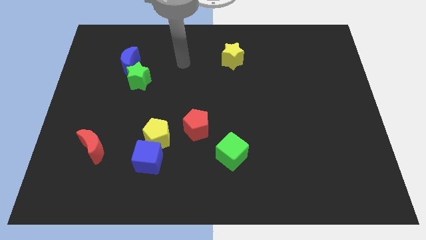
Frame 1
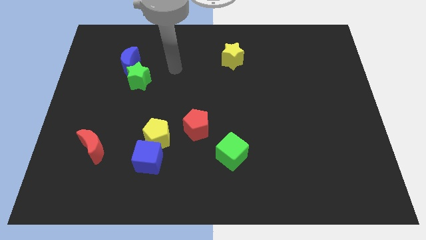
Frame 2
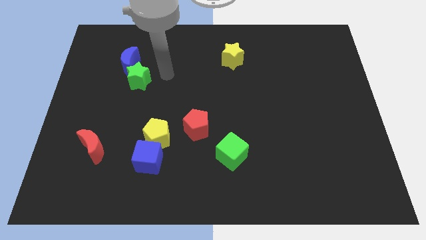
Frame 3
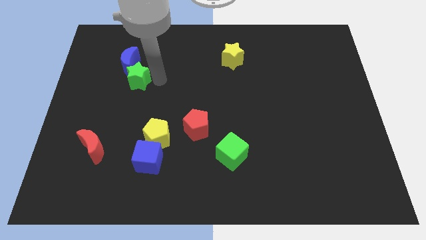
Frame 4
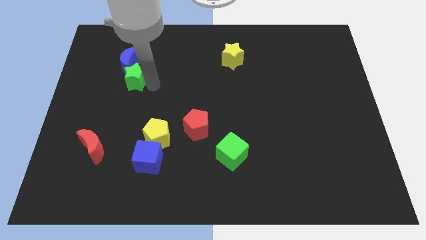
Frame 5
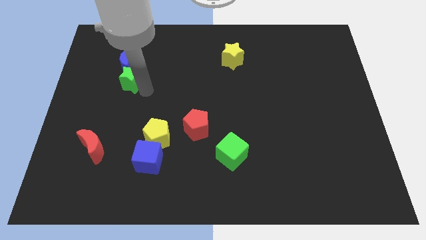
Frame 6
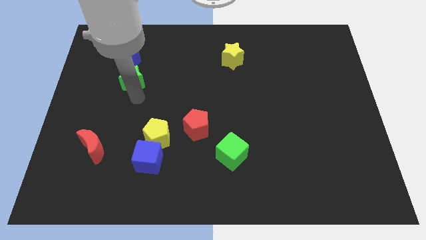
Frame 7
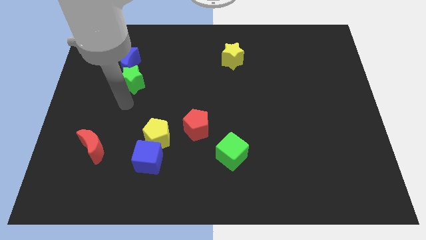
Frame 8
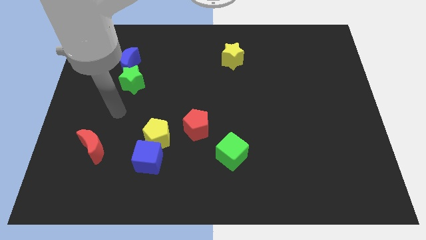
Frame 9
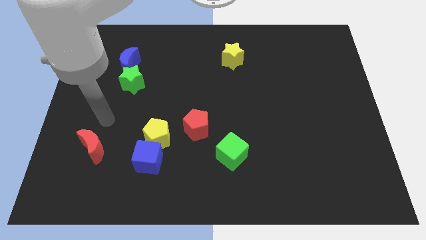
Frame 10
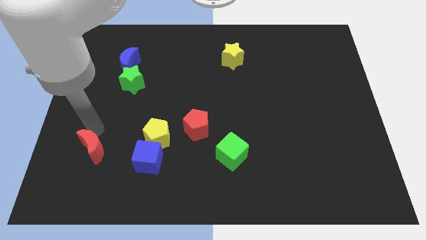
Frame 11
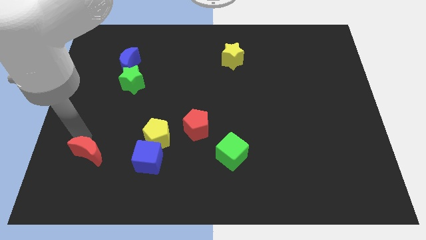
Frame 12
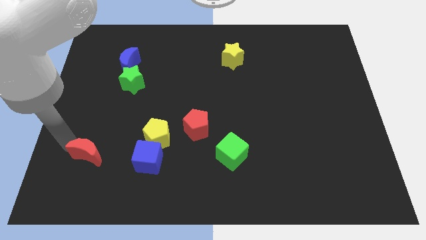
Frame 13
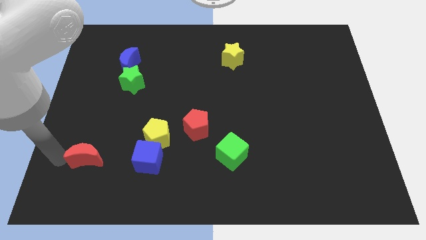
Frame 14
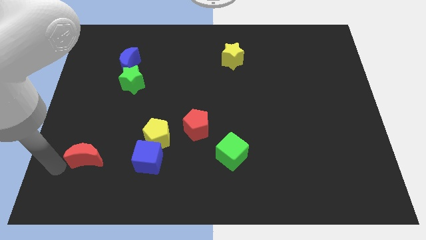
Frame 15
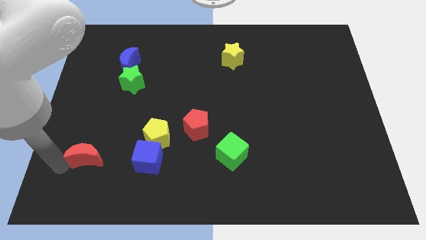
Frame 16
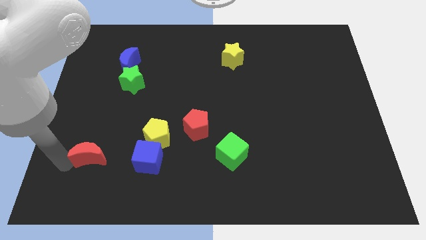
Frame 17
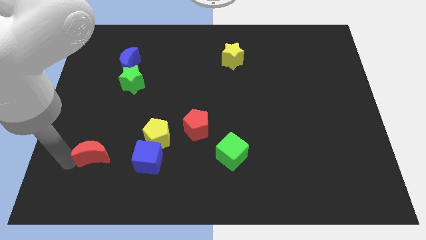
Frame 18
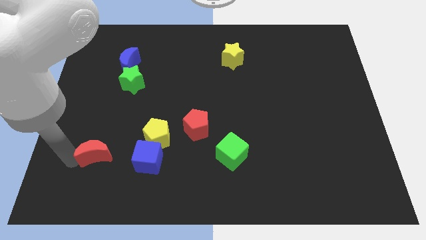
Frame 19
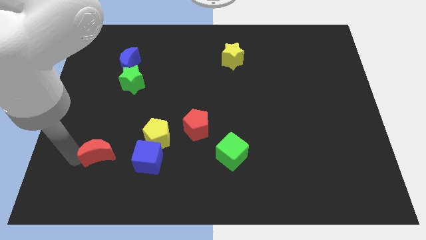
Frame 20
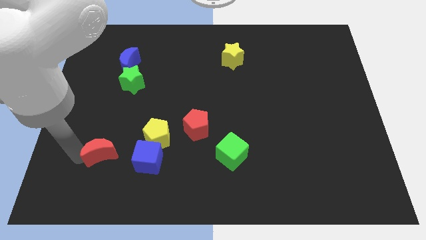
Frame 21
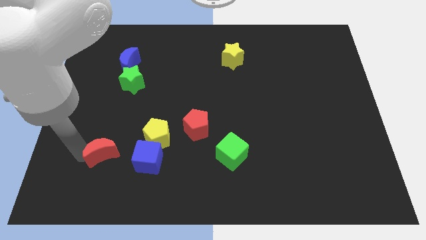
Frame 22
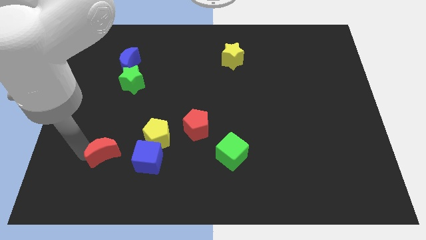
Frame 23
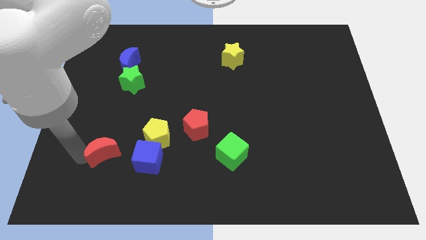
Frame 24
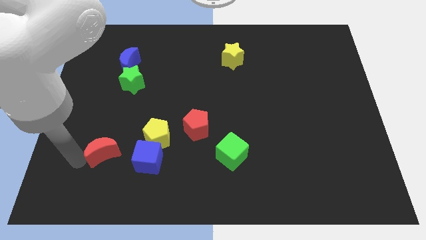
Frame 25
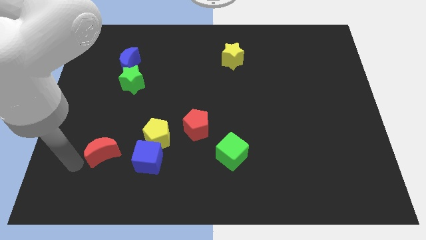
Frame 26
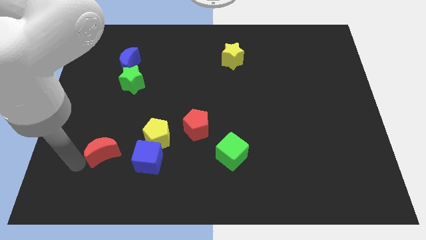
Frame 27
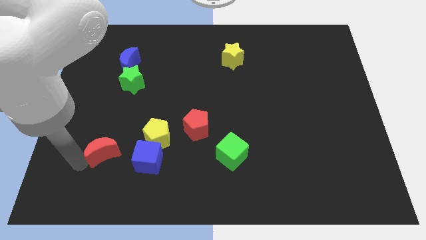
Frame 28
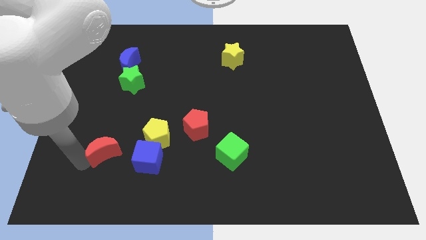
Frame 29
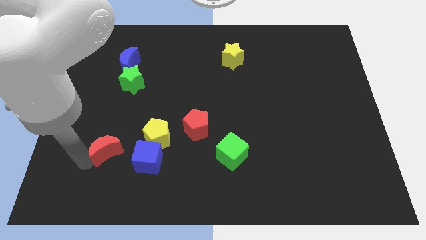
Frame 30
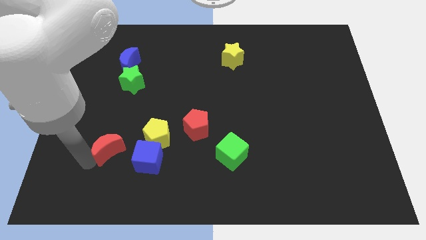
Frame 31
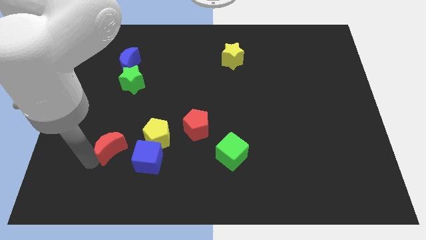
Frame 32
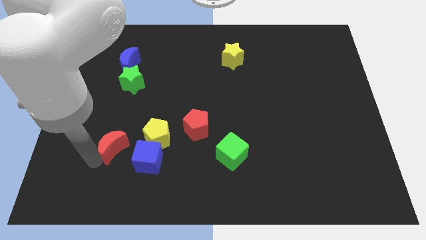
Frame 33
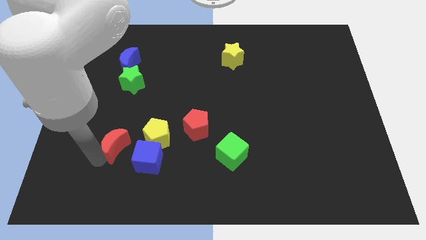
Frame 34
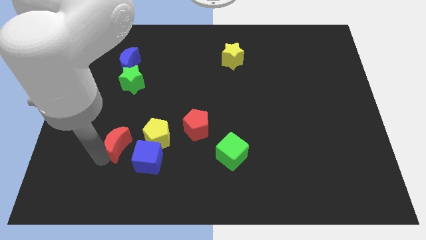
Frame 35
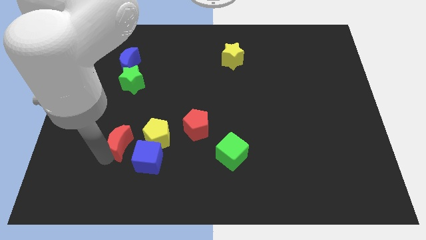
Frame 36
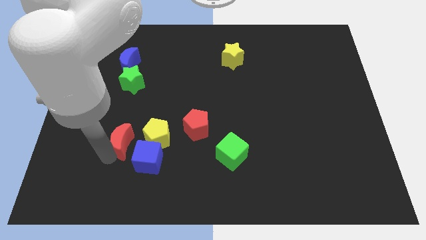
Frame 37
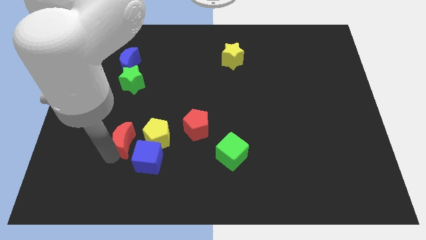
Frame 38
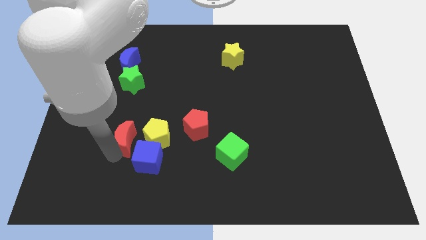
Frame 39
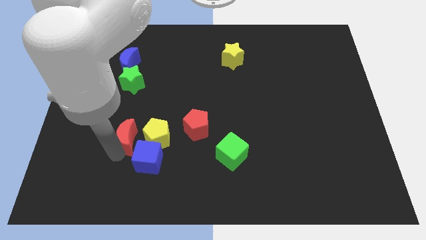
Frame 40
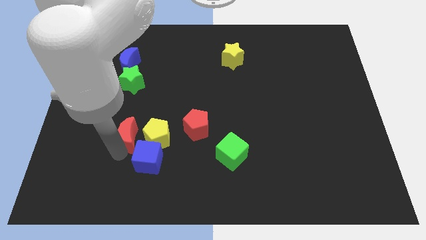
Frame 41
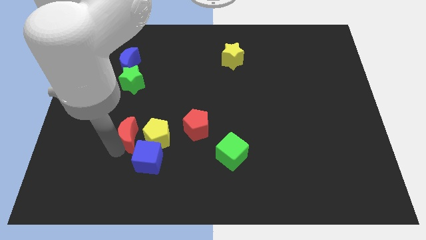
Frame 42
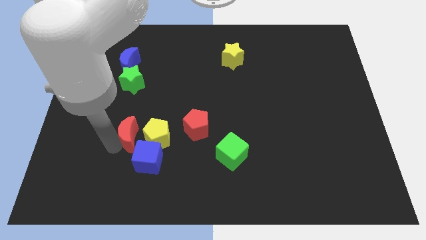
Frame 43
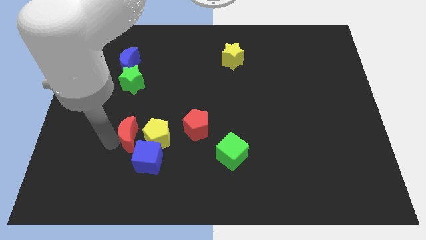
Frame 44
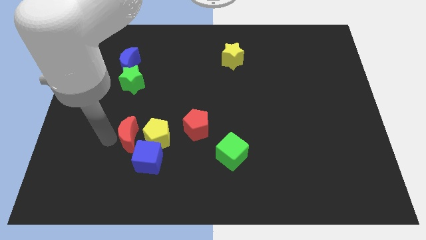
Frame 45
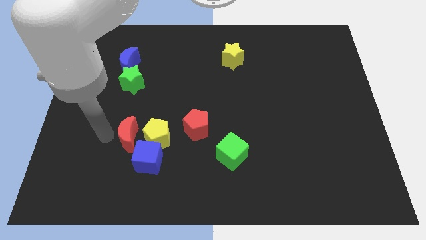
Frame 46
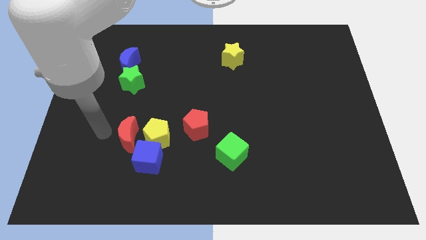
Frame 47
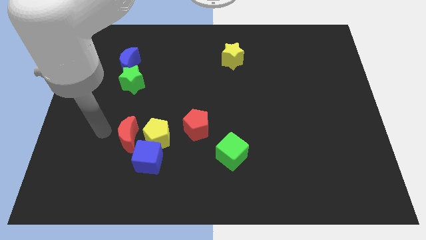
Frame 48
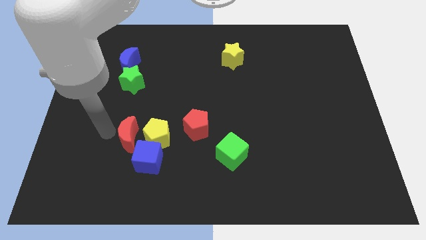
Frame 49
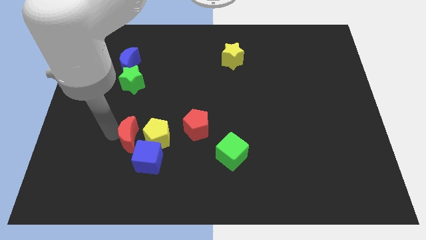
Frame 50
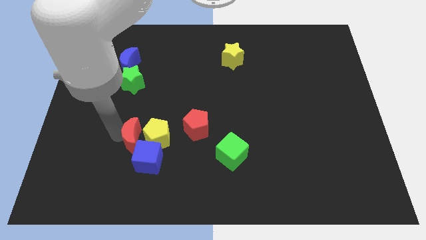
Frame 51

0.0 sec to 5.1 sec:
push the red moon next to the yellow pentagon

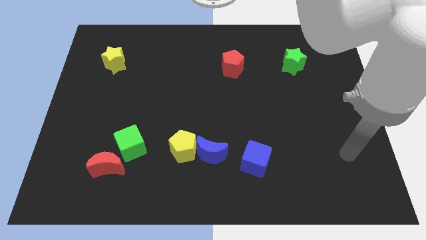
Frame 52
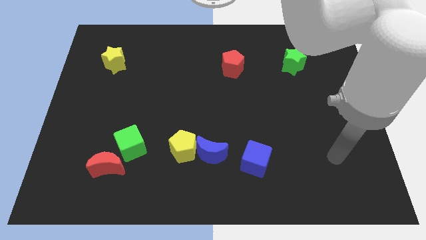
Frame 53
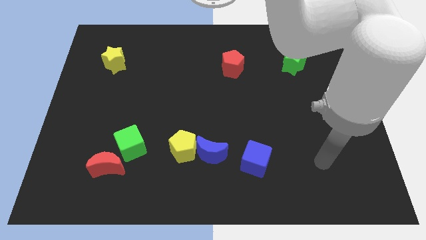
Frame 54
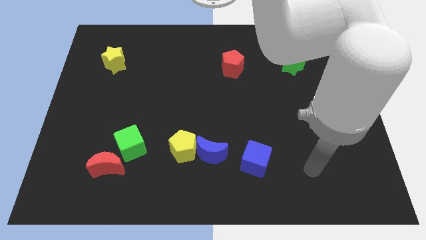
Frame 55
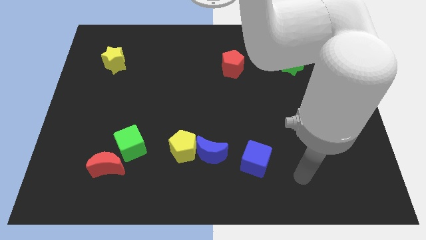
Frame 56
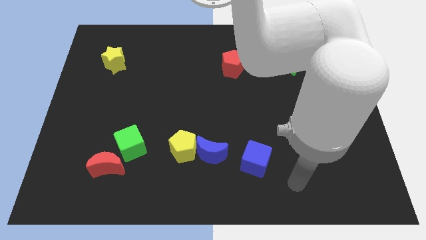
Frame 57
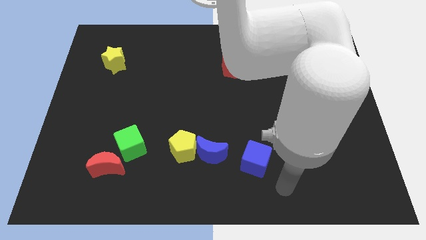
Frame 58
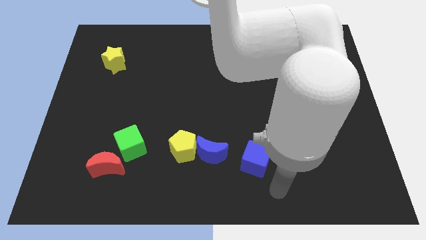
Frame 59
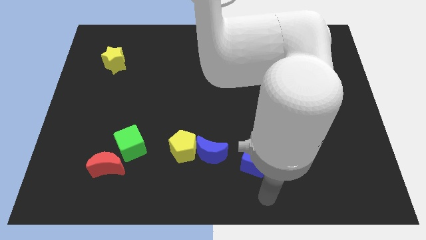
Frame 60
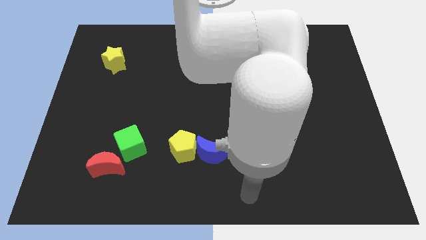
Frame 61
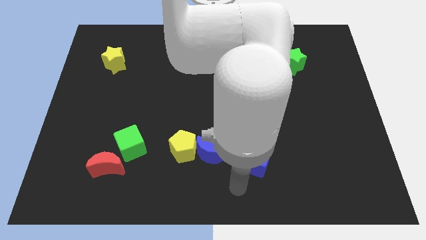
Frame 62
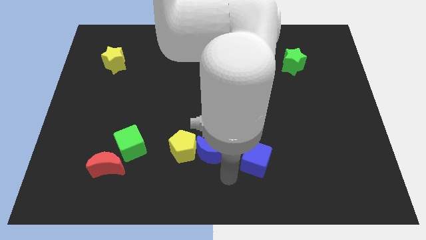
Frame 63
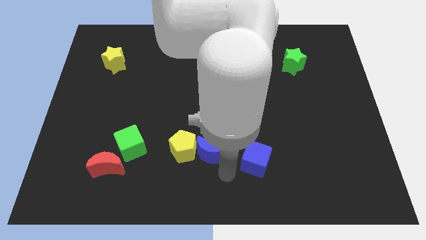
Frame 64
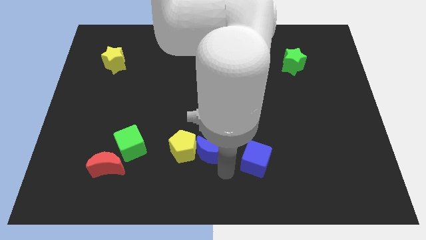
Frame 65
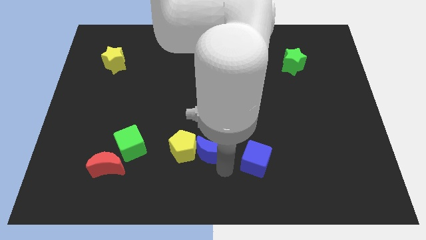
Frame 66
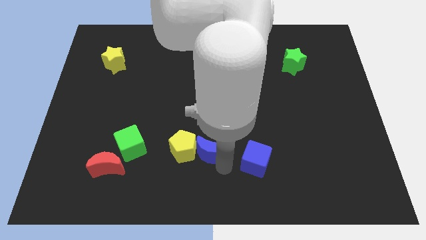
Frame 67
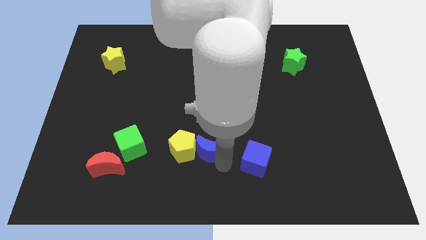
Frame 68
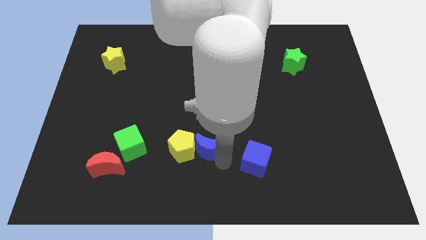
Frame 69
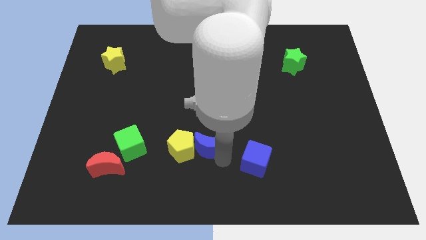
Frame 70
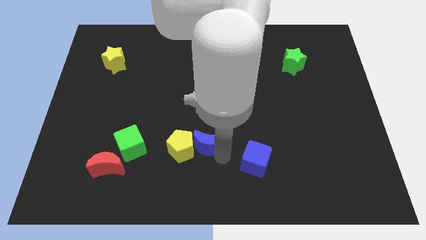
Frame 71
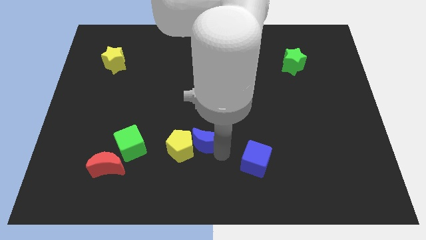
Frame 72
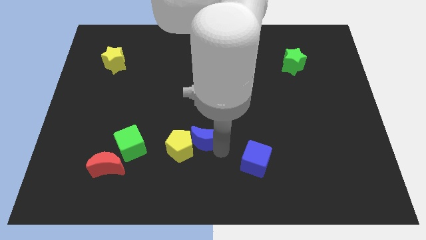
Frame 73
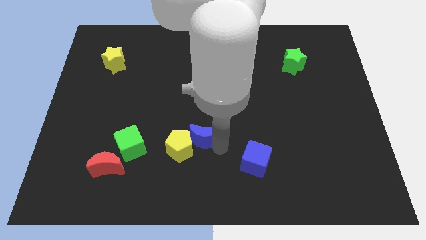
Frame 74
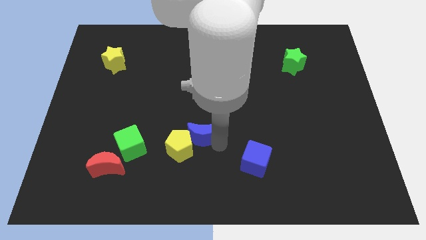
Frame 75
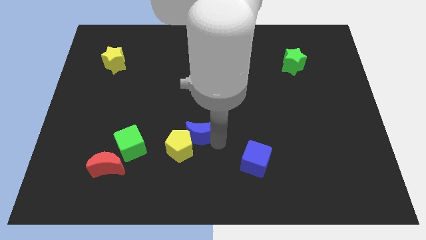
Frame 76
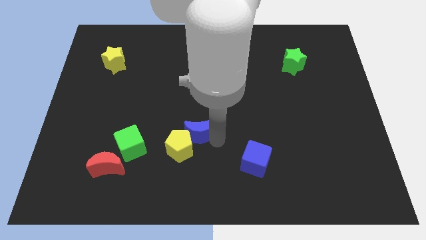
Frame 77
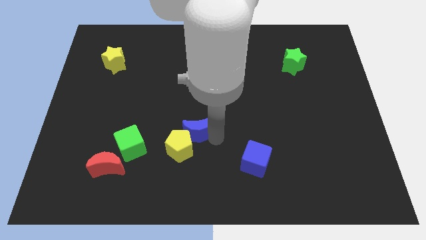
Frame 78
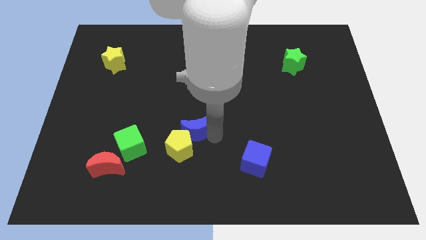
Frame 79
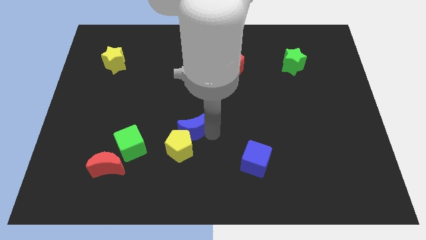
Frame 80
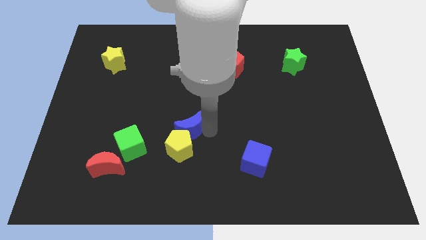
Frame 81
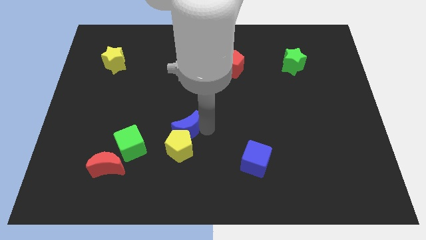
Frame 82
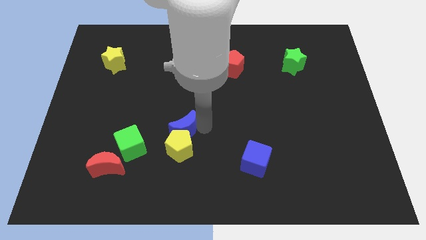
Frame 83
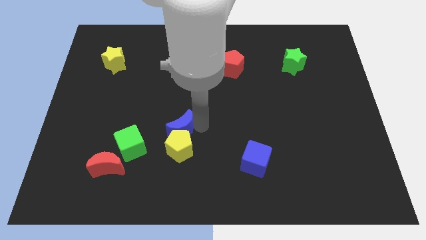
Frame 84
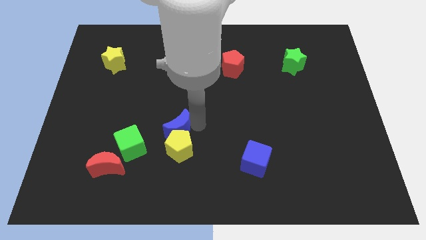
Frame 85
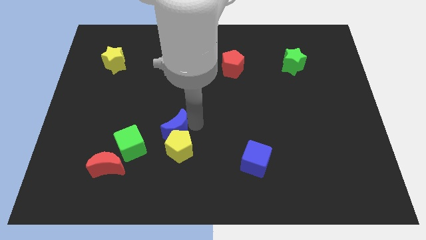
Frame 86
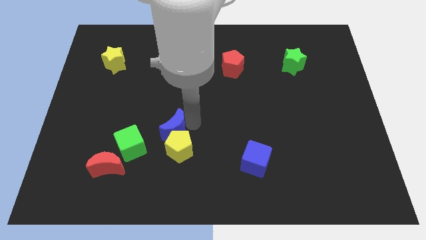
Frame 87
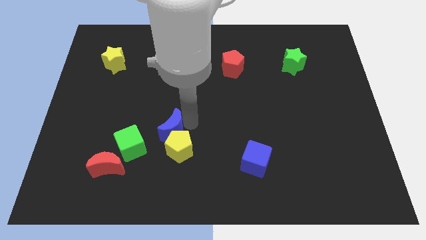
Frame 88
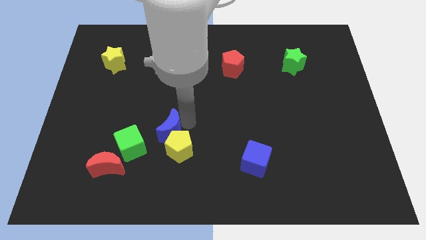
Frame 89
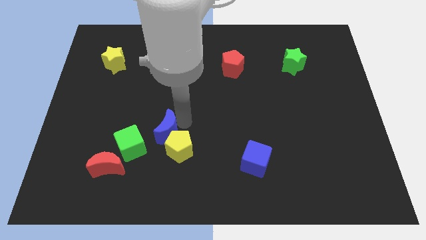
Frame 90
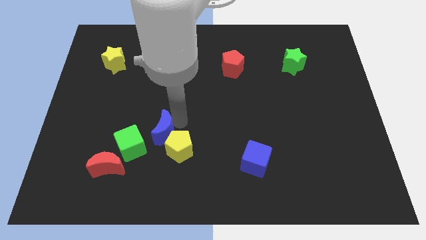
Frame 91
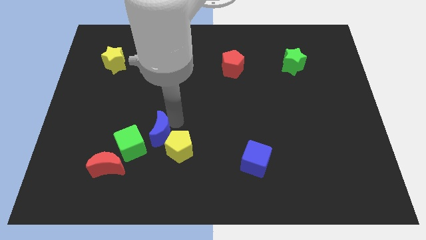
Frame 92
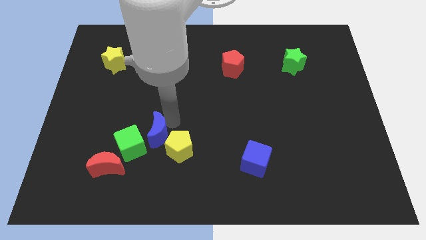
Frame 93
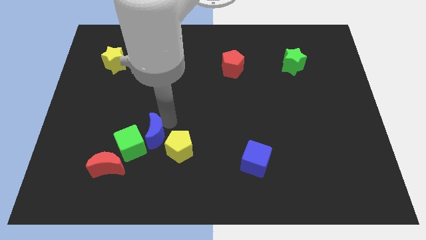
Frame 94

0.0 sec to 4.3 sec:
slide the blue moon to the green cube
